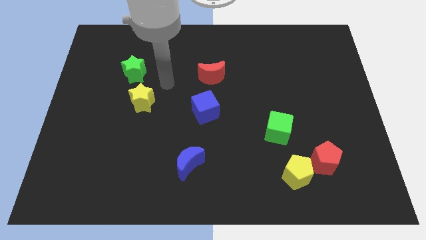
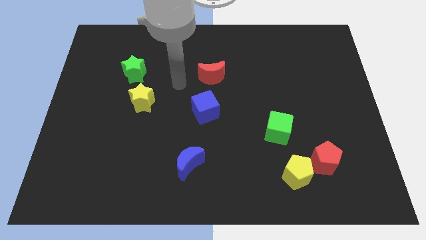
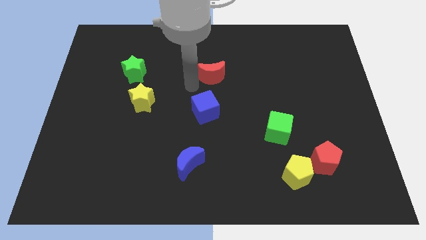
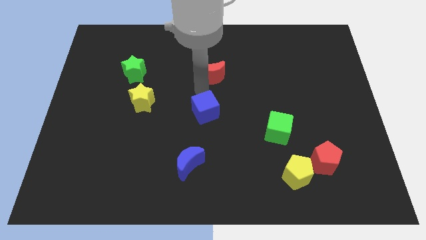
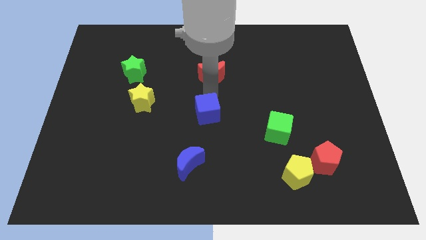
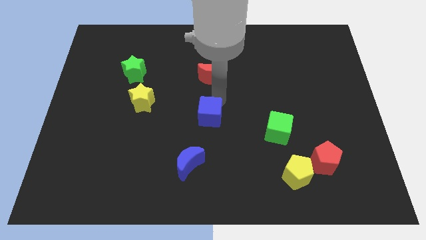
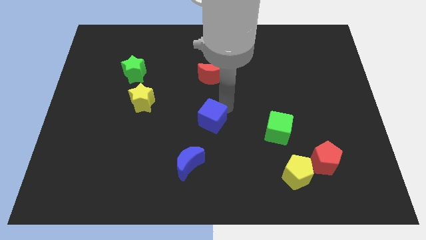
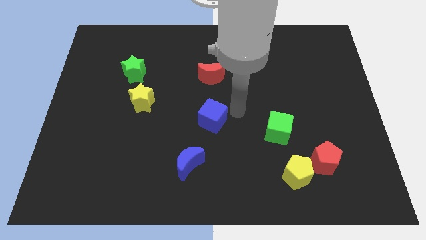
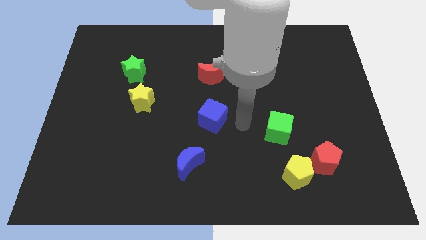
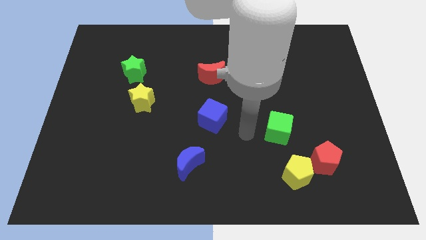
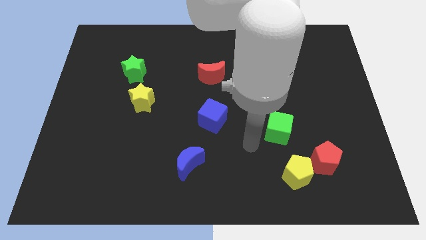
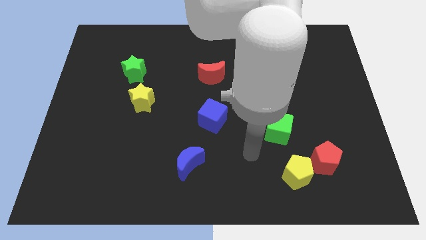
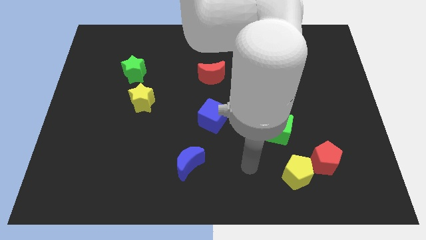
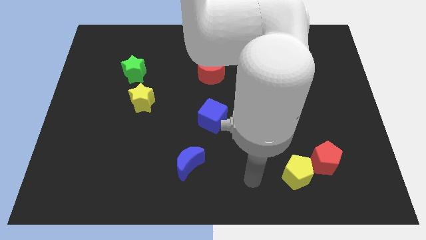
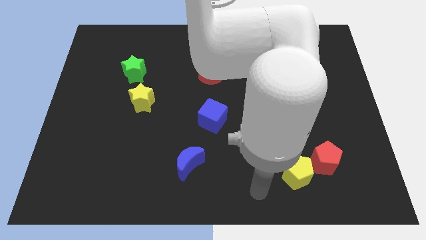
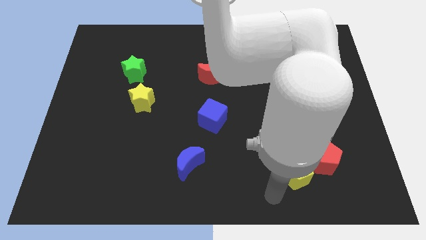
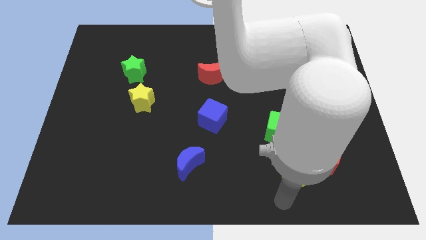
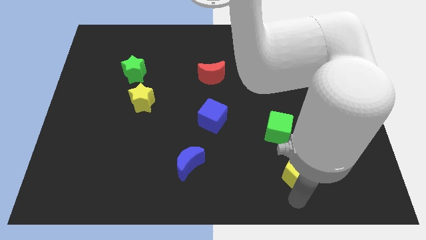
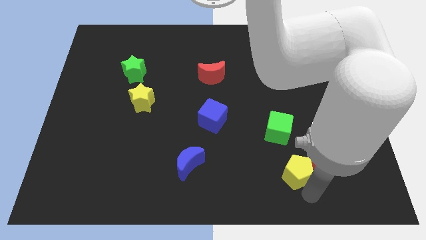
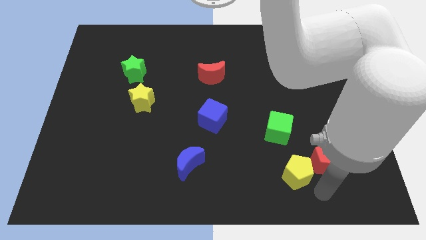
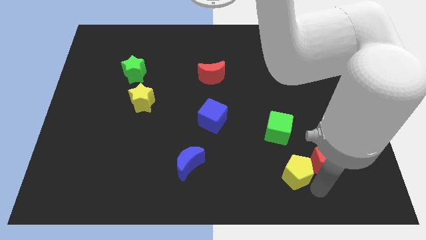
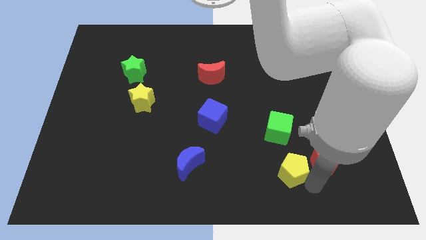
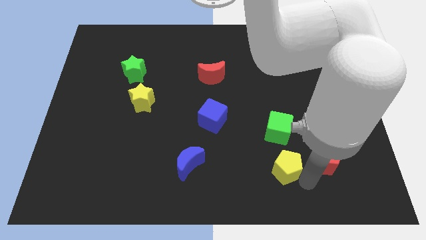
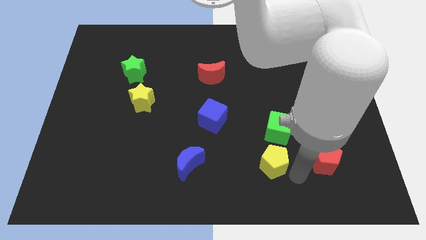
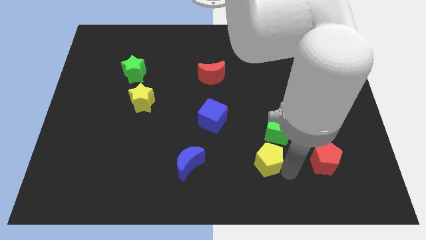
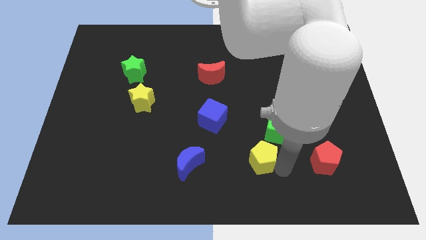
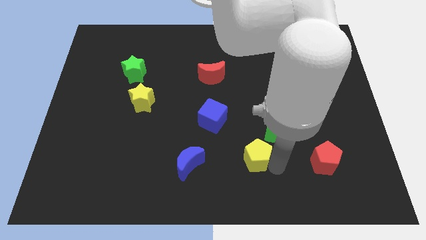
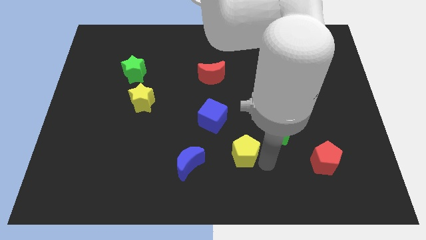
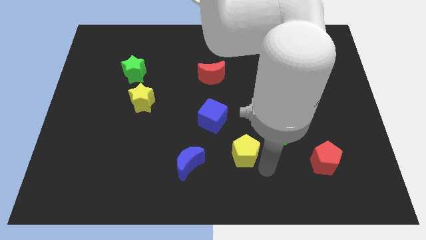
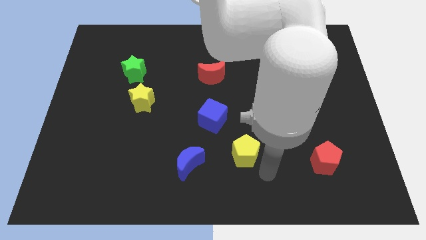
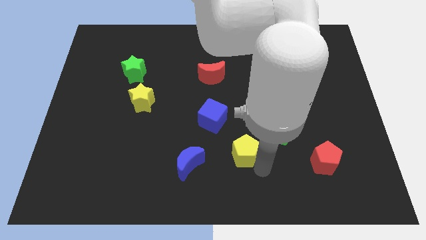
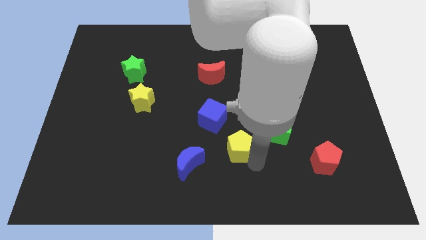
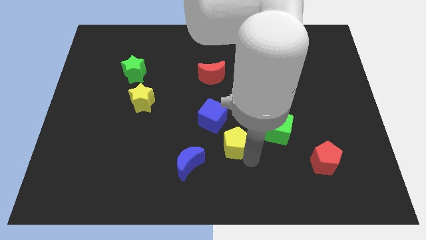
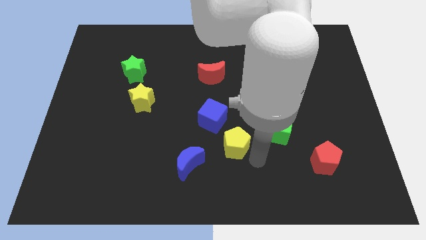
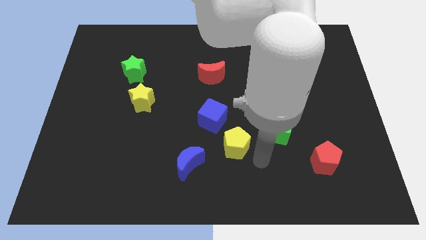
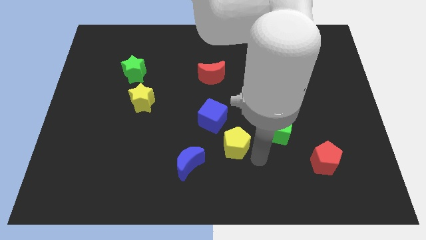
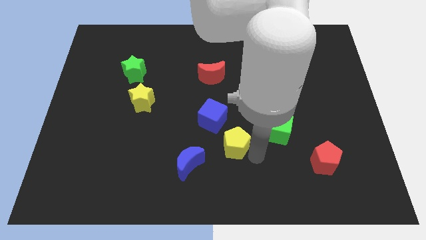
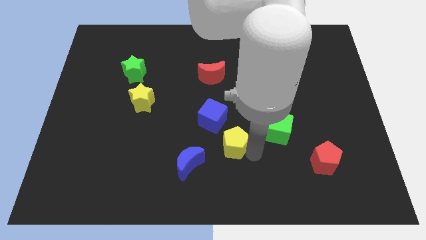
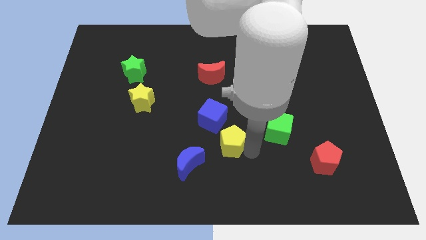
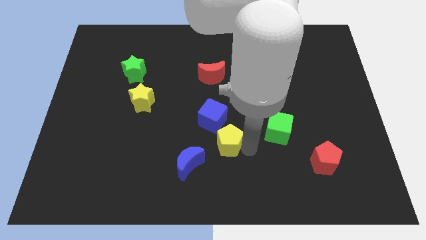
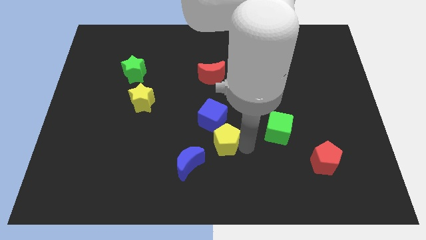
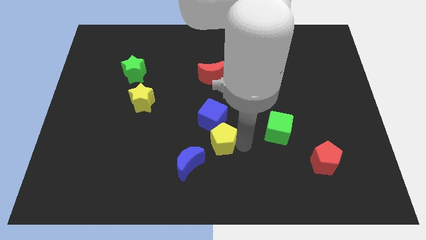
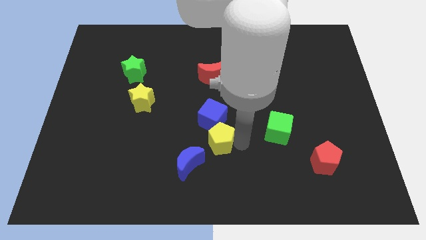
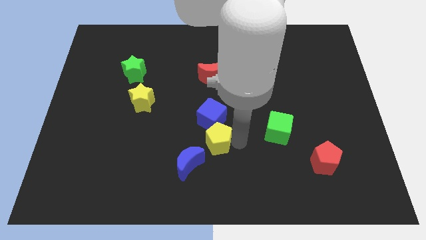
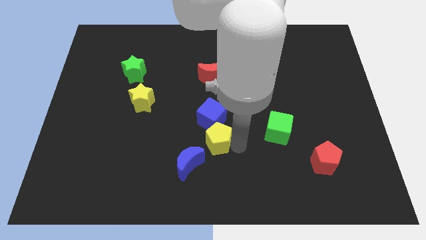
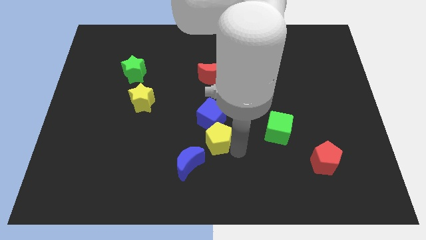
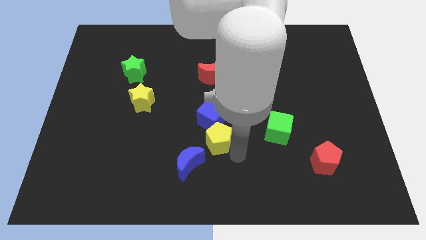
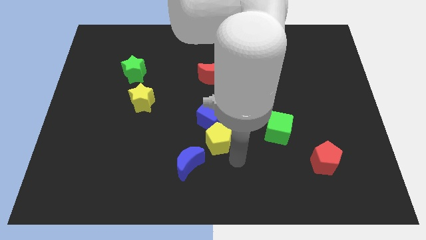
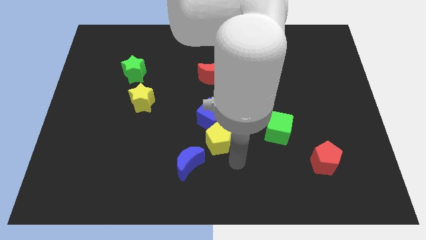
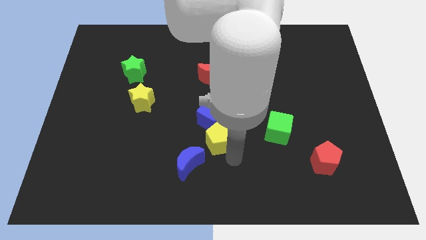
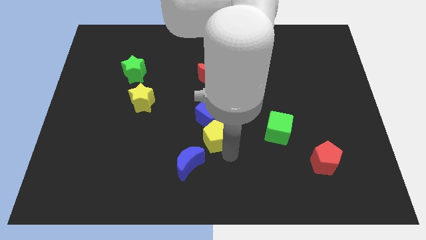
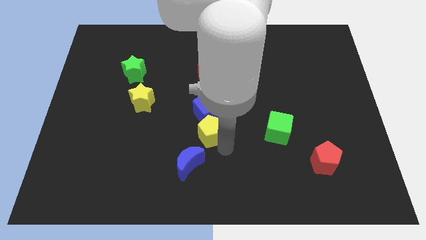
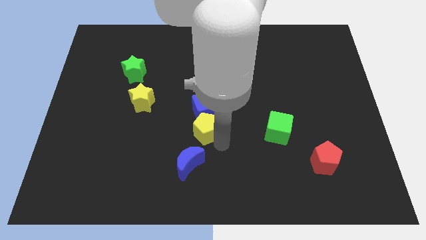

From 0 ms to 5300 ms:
move the yellow pentagon up and then left

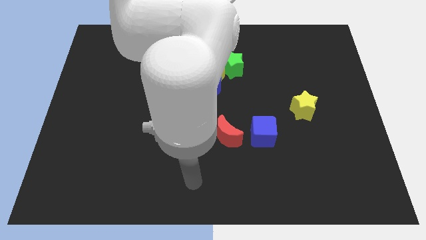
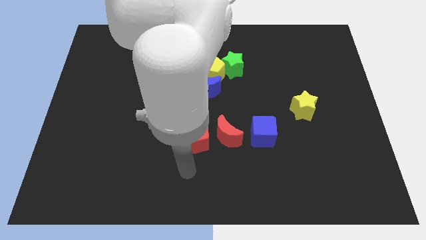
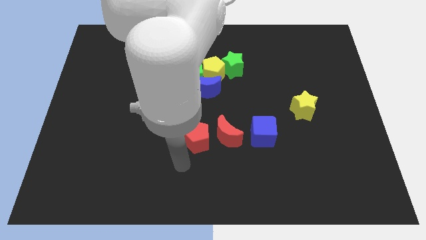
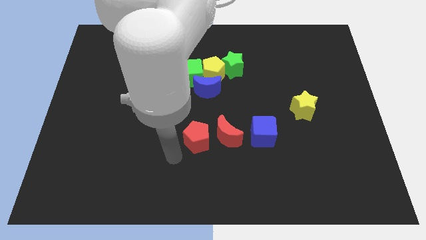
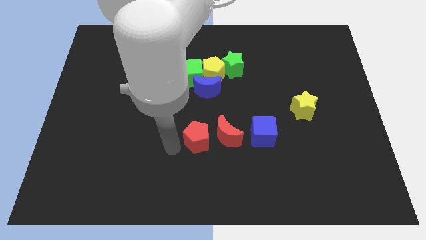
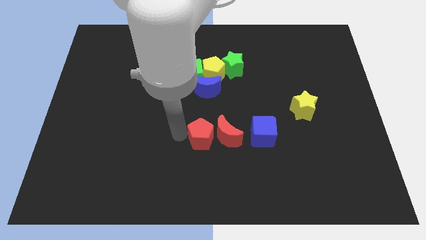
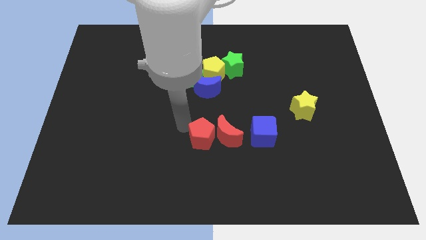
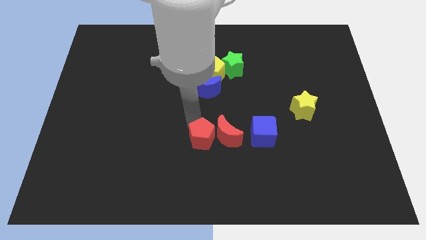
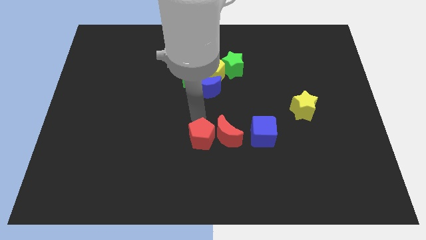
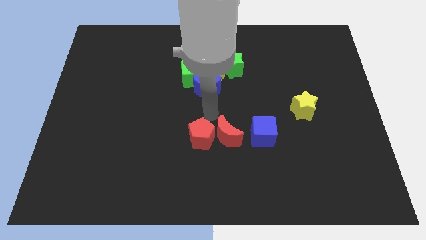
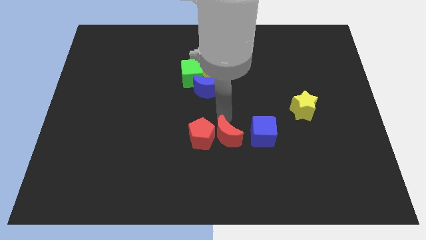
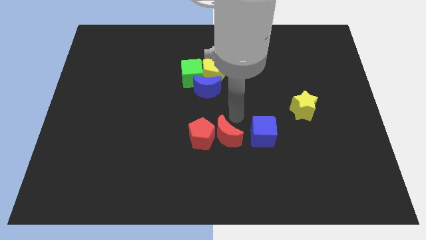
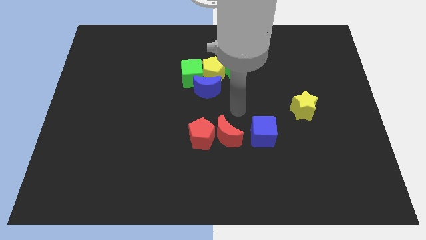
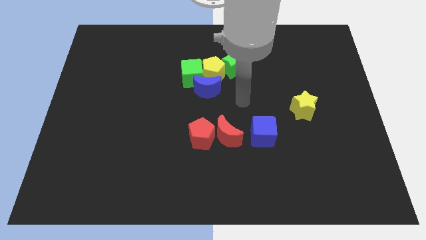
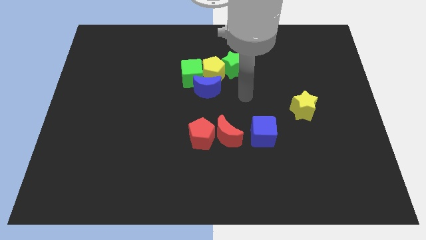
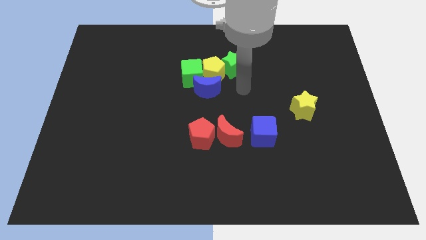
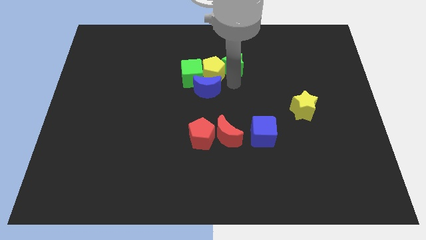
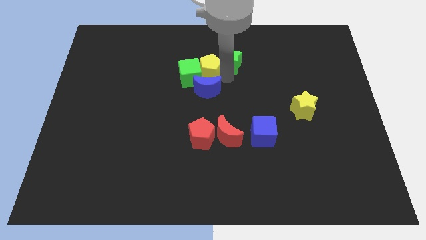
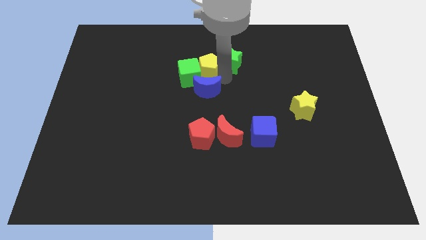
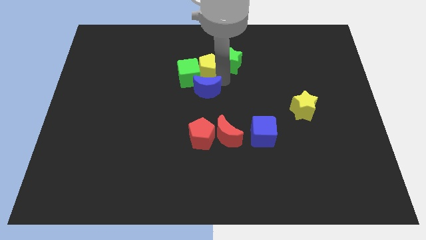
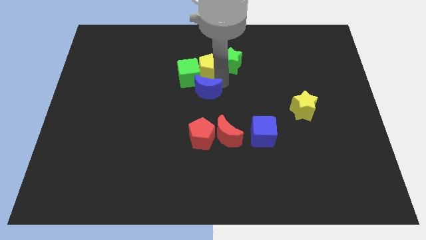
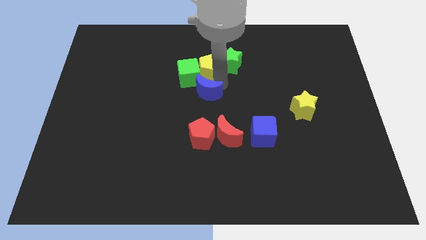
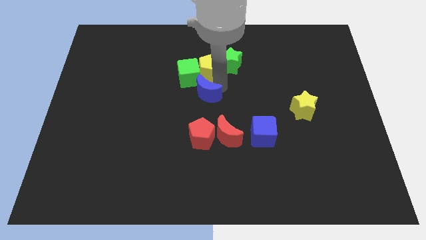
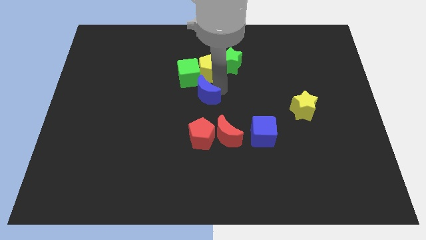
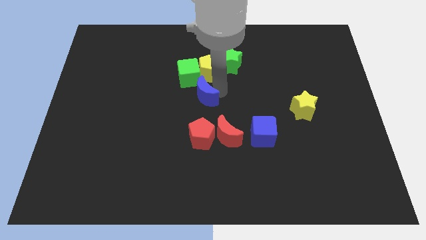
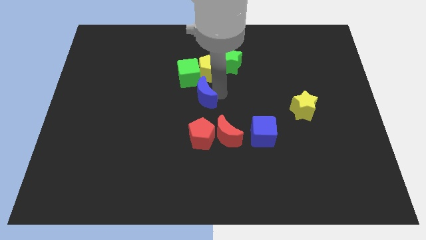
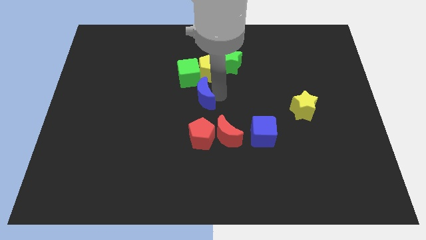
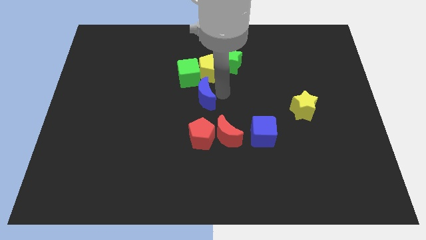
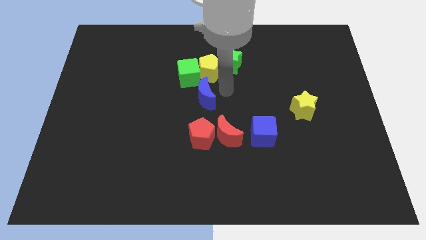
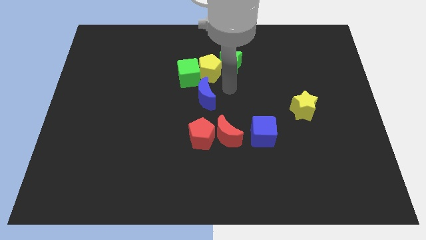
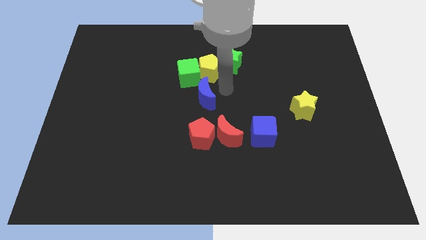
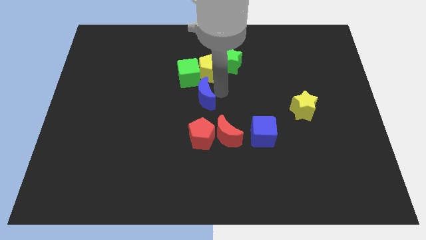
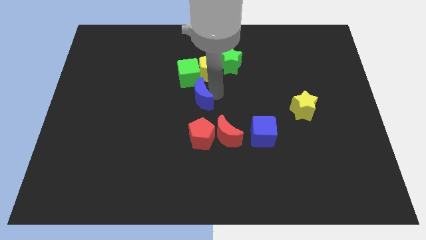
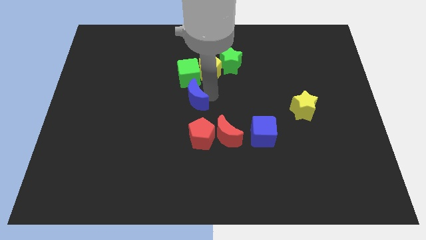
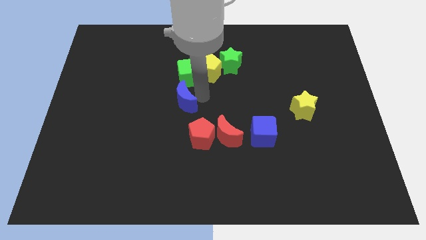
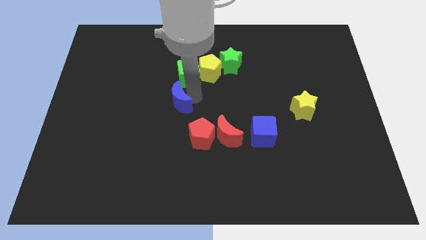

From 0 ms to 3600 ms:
slide the blue moon a little bit downwards and to the left diagonally
